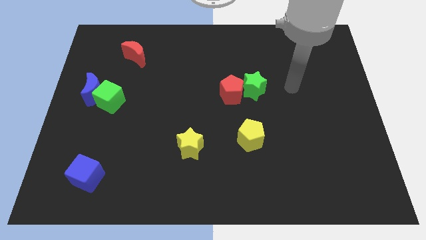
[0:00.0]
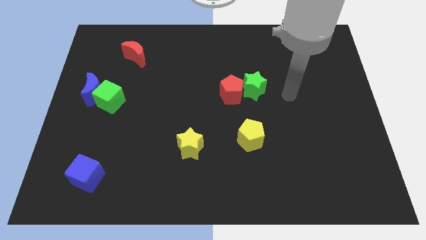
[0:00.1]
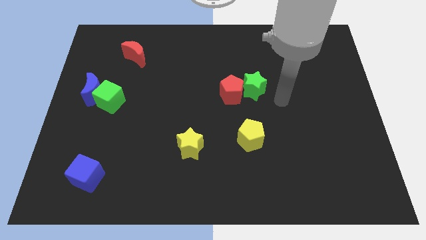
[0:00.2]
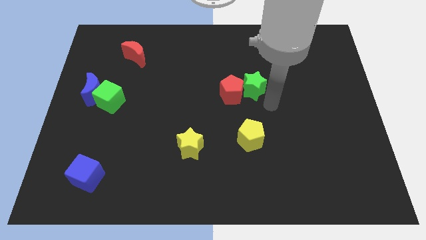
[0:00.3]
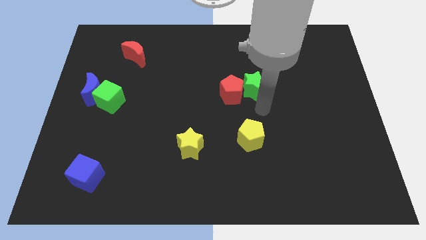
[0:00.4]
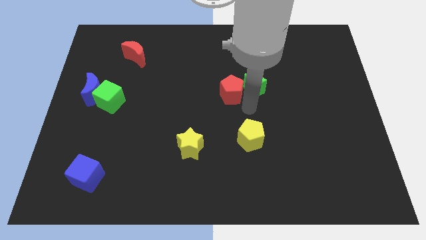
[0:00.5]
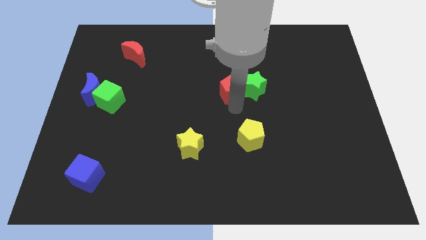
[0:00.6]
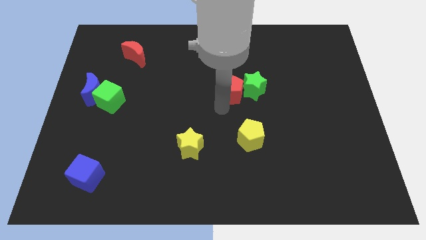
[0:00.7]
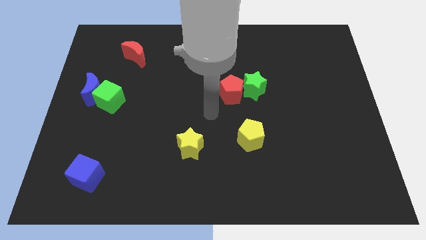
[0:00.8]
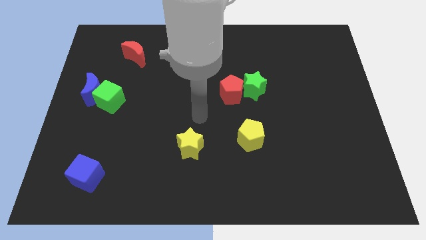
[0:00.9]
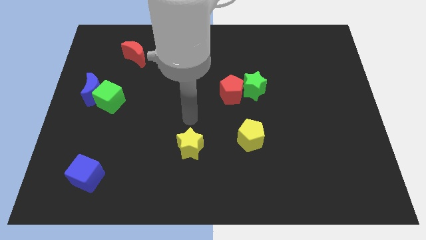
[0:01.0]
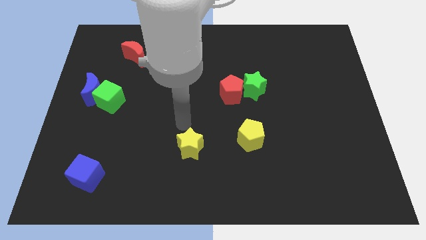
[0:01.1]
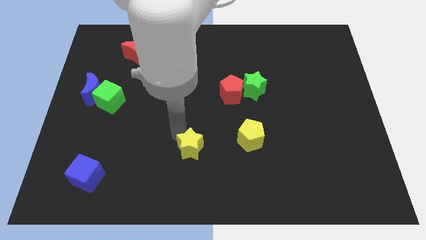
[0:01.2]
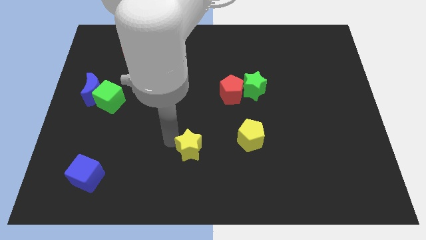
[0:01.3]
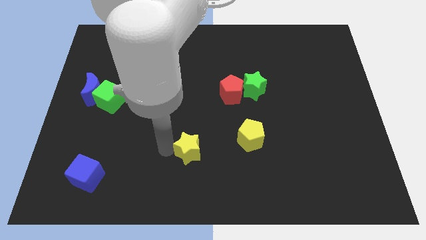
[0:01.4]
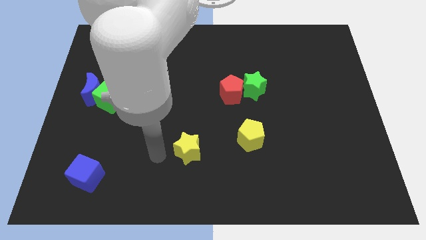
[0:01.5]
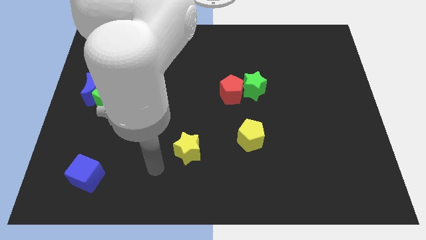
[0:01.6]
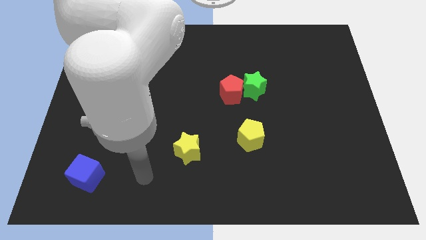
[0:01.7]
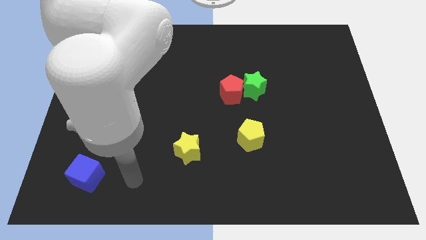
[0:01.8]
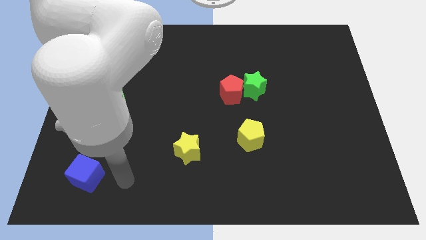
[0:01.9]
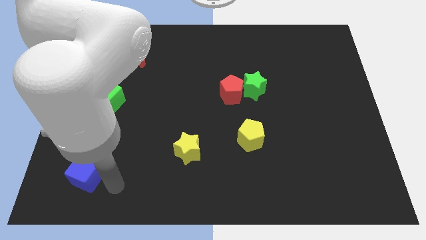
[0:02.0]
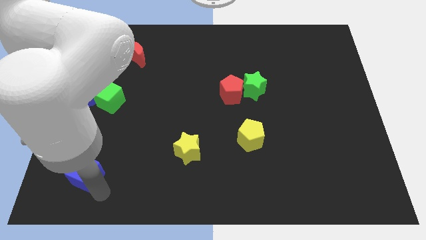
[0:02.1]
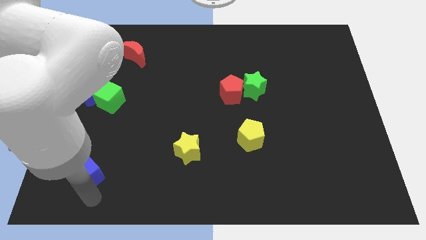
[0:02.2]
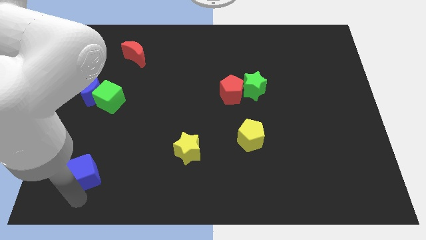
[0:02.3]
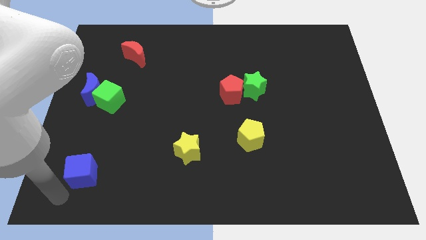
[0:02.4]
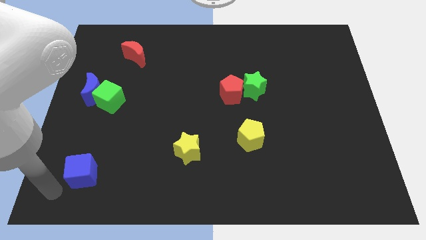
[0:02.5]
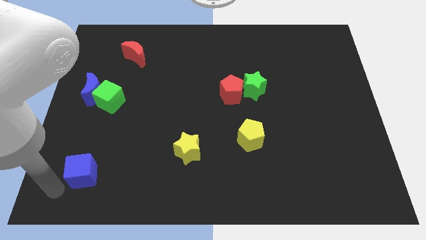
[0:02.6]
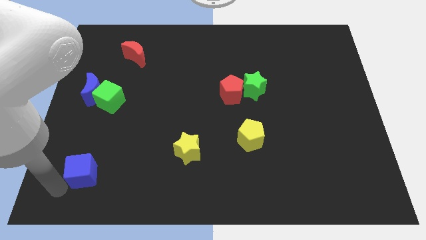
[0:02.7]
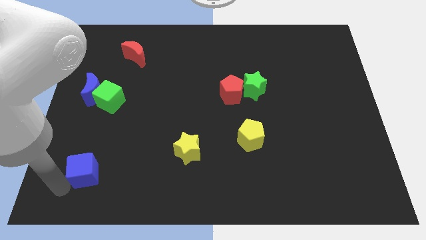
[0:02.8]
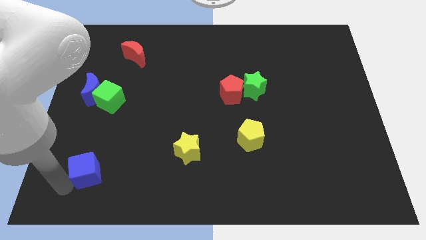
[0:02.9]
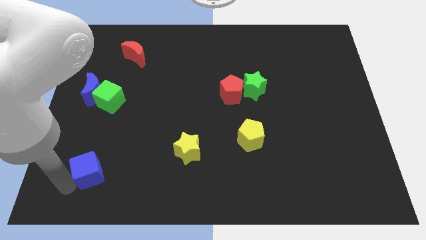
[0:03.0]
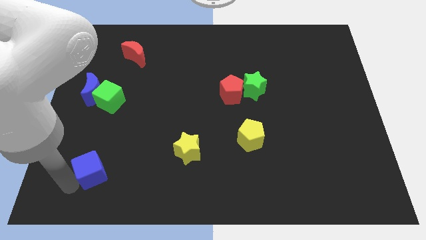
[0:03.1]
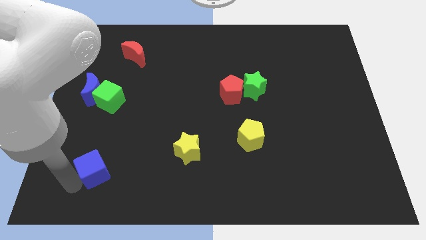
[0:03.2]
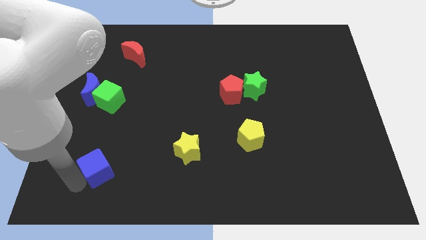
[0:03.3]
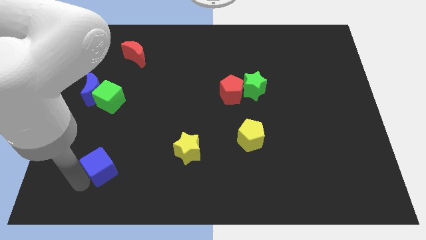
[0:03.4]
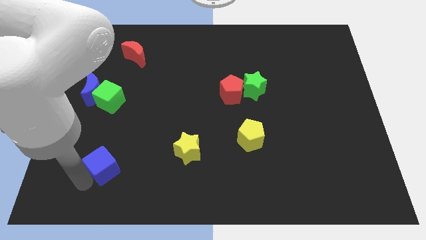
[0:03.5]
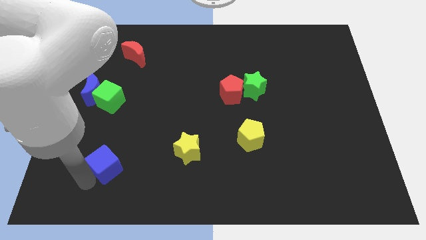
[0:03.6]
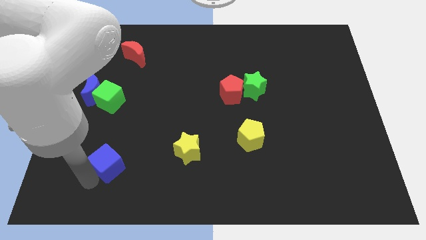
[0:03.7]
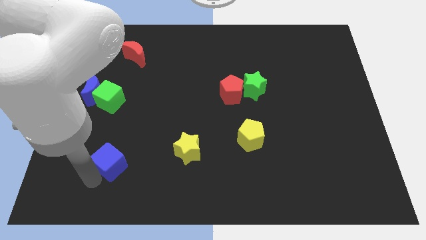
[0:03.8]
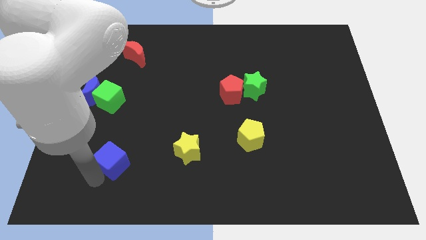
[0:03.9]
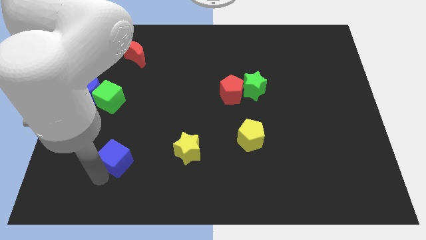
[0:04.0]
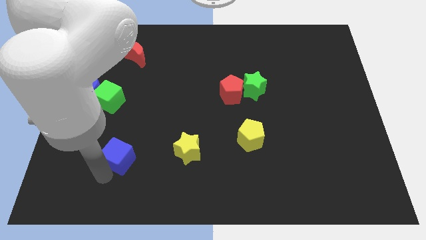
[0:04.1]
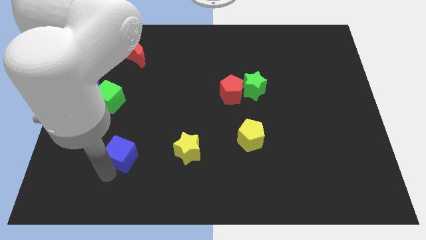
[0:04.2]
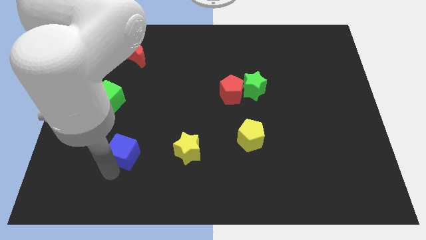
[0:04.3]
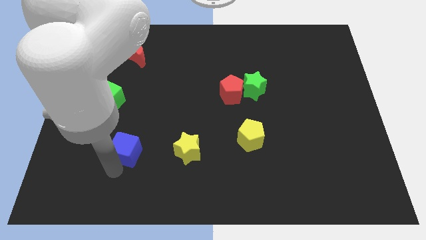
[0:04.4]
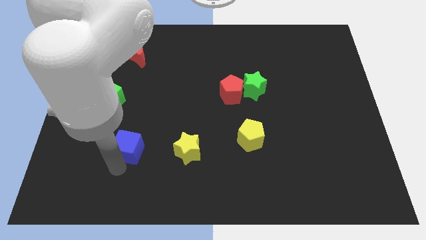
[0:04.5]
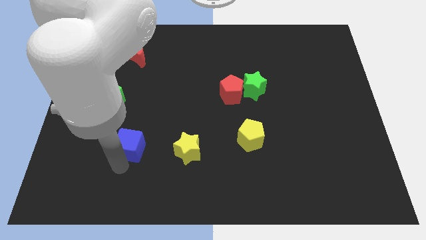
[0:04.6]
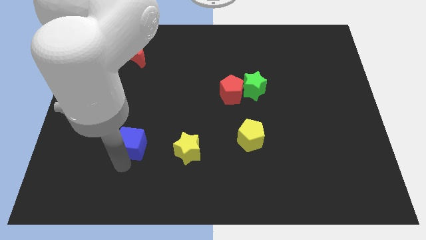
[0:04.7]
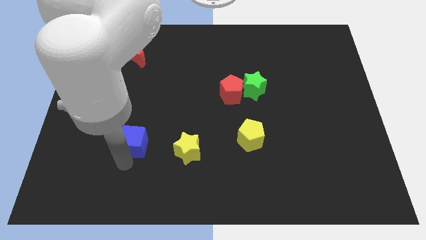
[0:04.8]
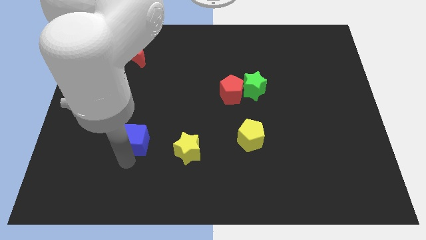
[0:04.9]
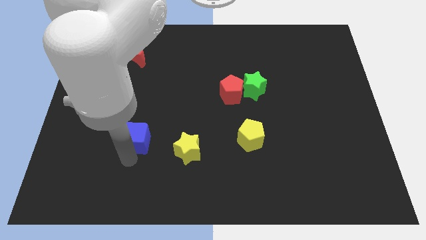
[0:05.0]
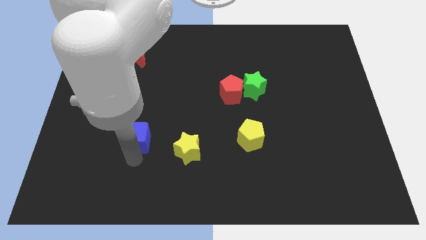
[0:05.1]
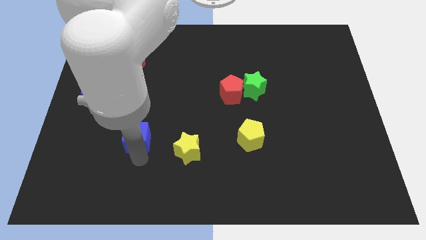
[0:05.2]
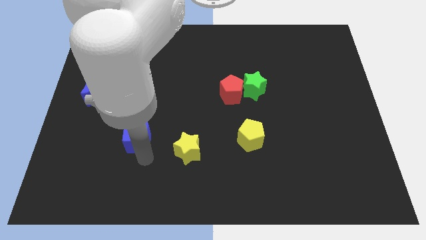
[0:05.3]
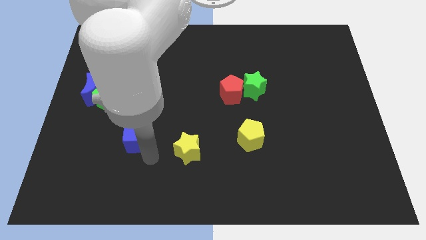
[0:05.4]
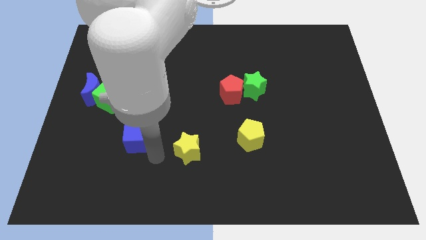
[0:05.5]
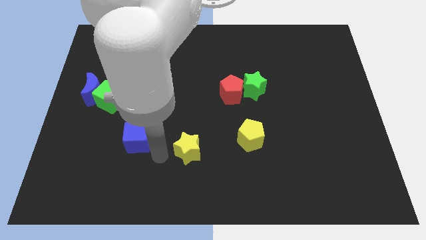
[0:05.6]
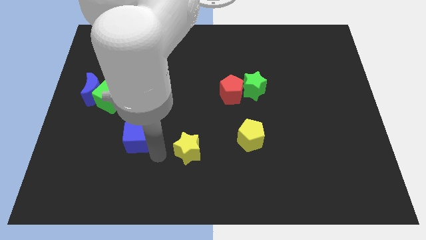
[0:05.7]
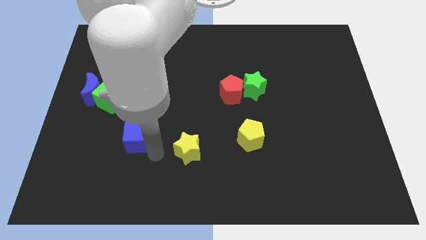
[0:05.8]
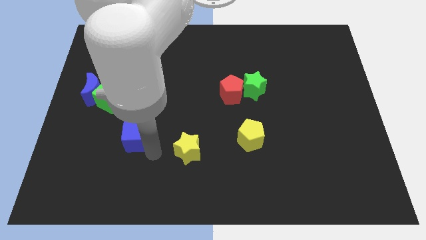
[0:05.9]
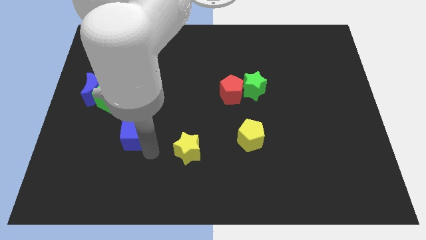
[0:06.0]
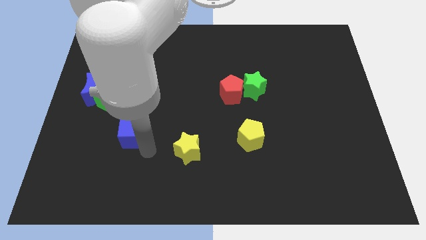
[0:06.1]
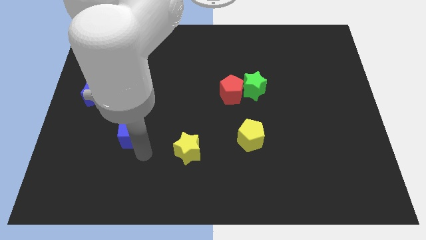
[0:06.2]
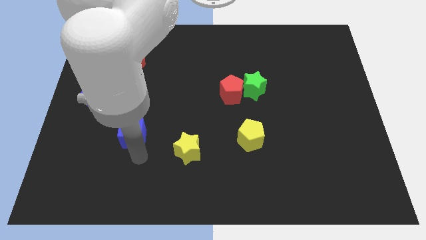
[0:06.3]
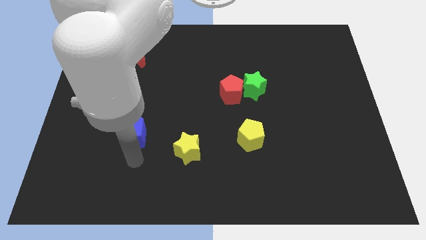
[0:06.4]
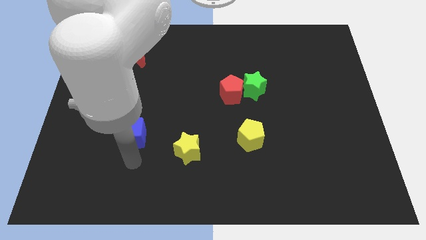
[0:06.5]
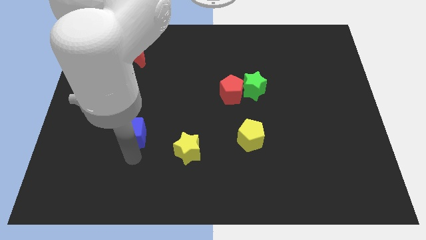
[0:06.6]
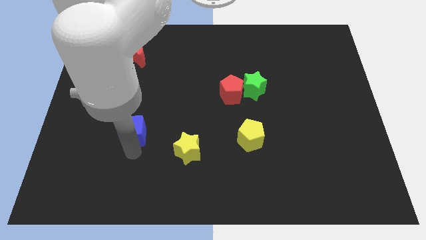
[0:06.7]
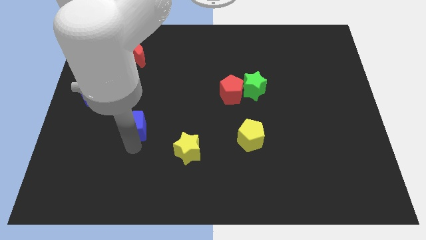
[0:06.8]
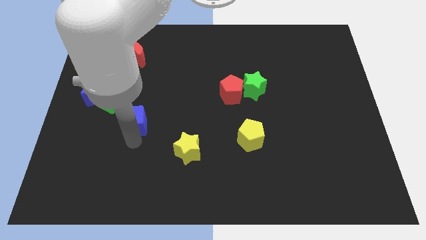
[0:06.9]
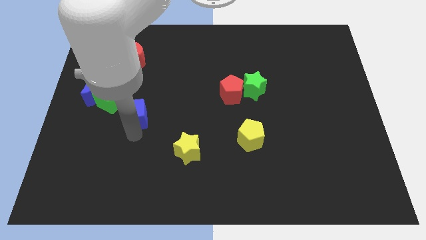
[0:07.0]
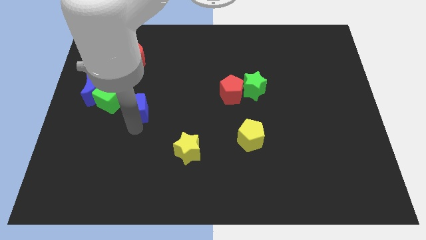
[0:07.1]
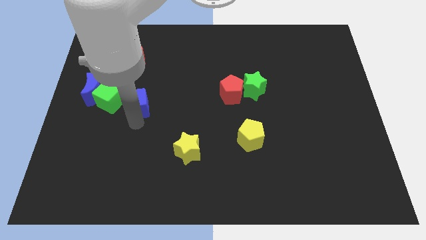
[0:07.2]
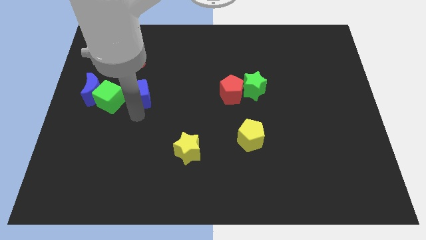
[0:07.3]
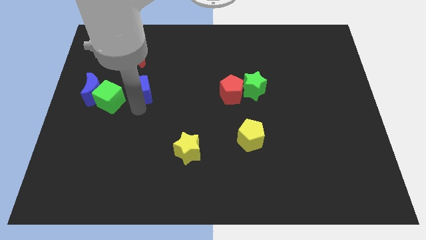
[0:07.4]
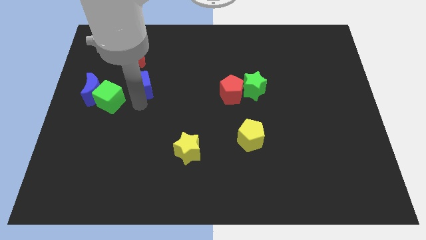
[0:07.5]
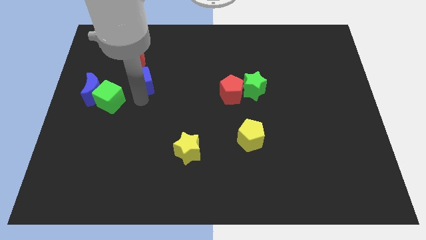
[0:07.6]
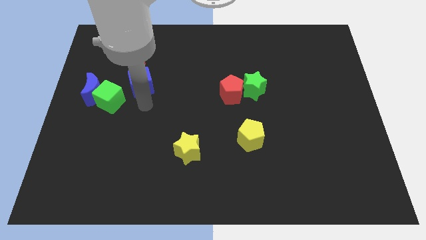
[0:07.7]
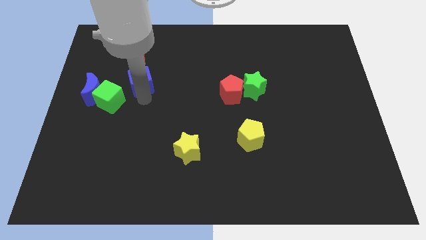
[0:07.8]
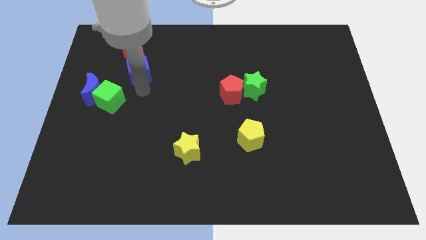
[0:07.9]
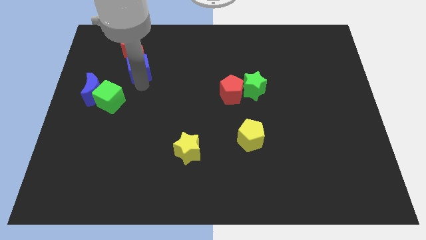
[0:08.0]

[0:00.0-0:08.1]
push the blue cube close to the red moon
